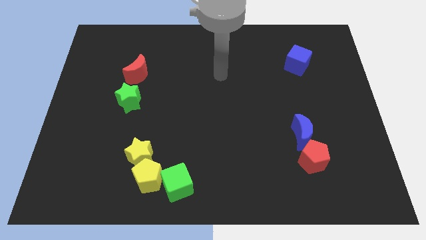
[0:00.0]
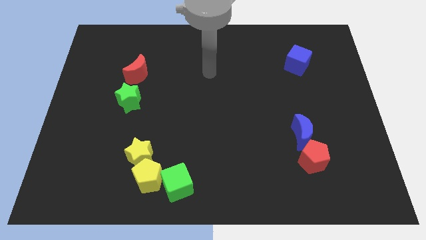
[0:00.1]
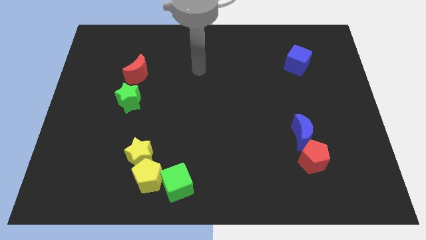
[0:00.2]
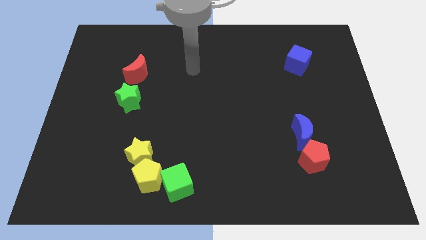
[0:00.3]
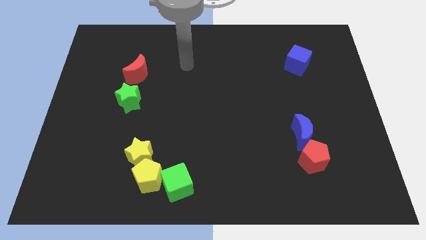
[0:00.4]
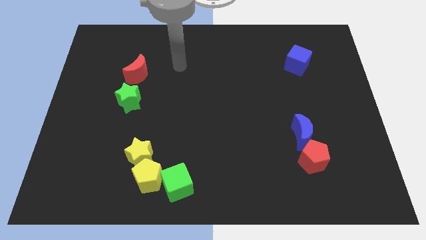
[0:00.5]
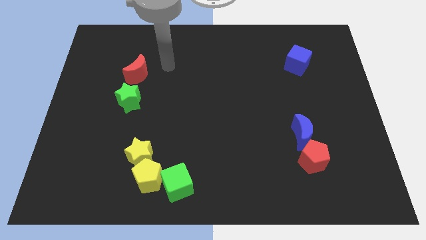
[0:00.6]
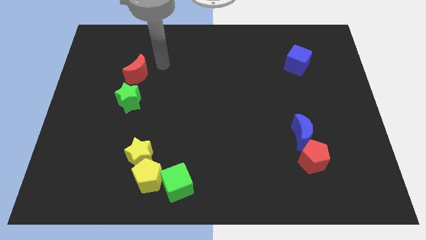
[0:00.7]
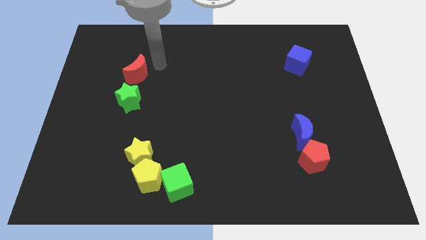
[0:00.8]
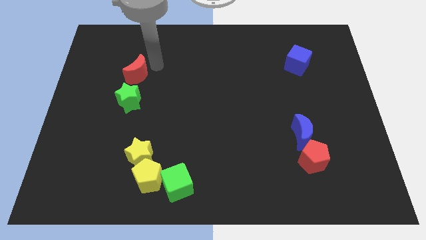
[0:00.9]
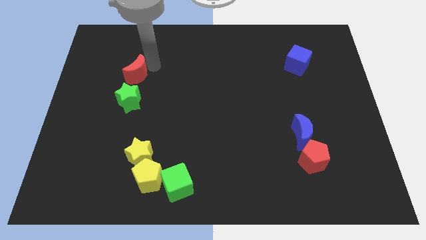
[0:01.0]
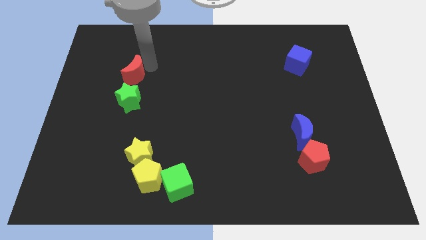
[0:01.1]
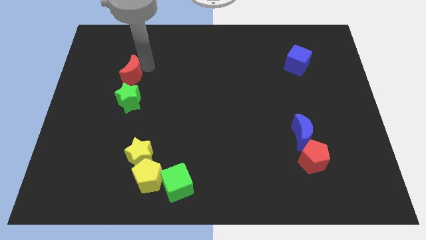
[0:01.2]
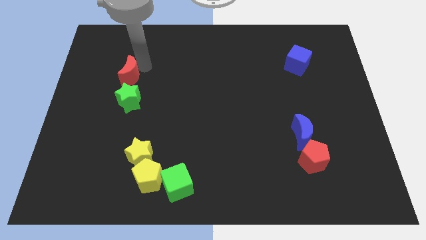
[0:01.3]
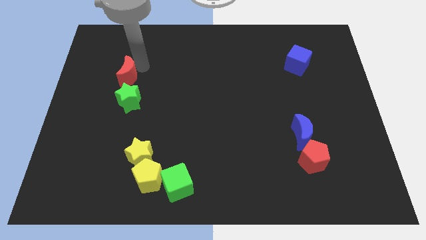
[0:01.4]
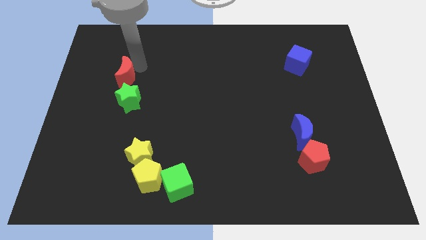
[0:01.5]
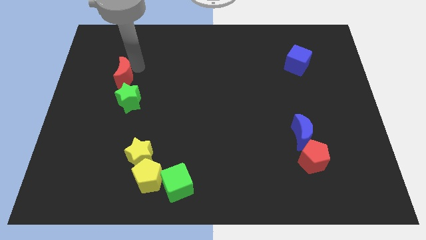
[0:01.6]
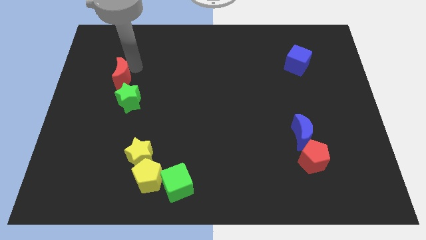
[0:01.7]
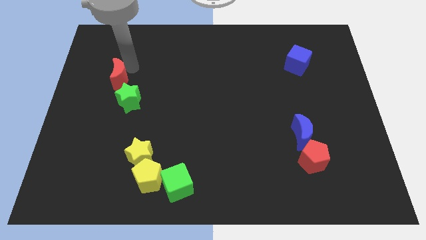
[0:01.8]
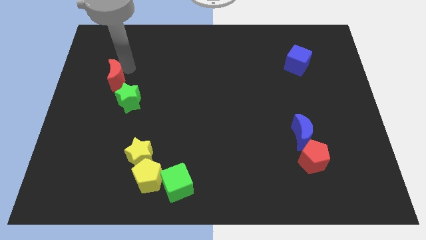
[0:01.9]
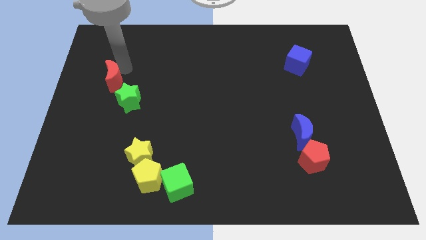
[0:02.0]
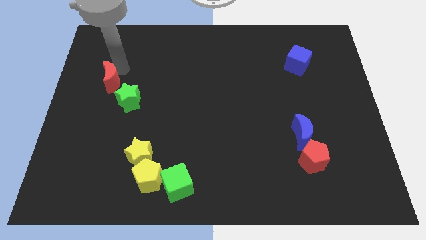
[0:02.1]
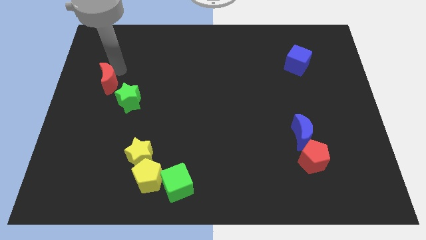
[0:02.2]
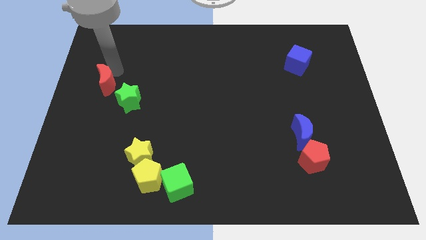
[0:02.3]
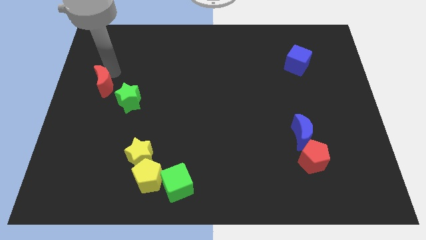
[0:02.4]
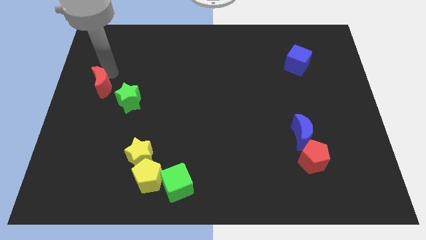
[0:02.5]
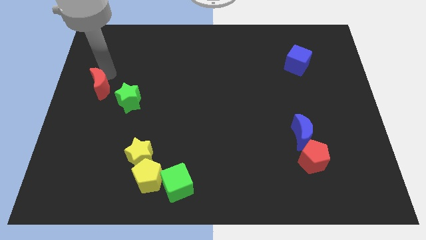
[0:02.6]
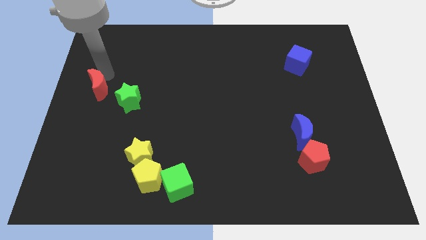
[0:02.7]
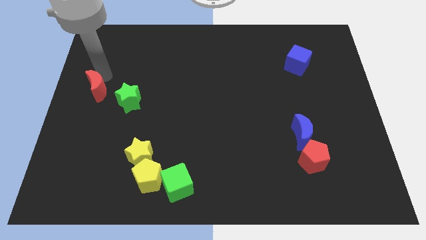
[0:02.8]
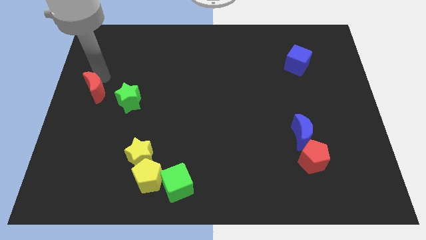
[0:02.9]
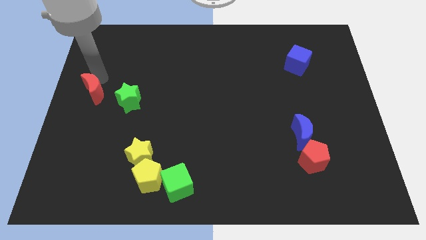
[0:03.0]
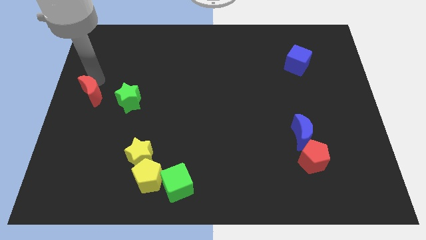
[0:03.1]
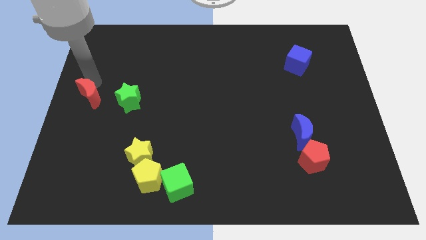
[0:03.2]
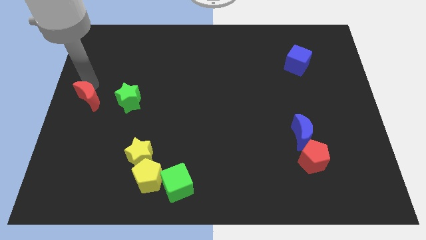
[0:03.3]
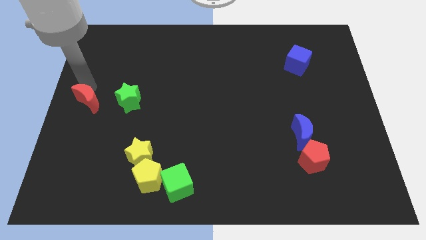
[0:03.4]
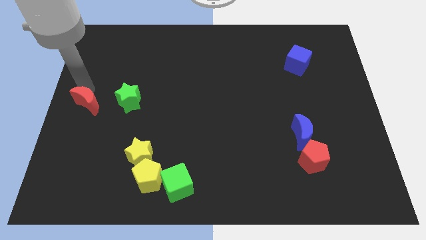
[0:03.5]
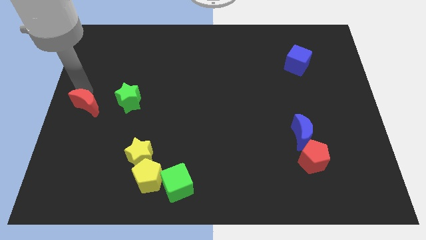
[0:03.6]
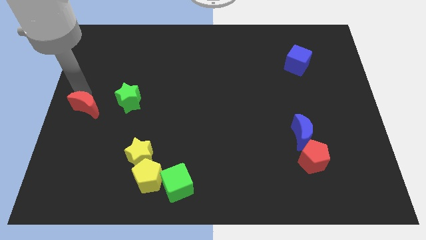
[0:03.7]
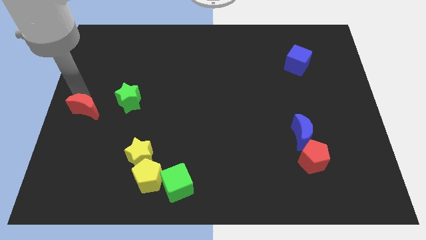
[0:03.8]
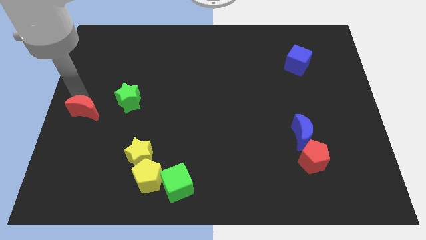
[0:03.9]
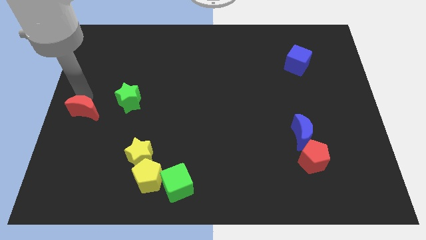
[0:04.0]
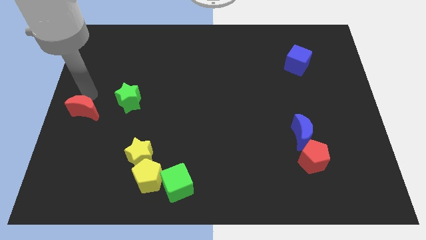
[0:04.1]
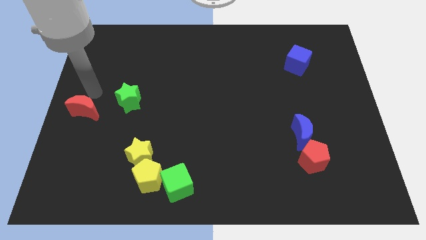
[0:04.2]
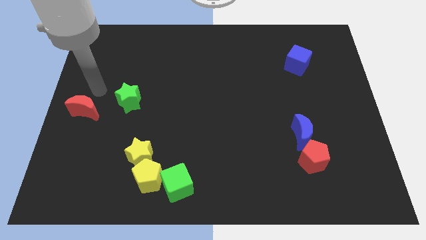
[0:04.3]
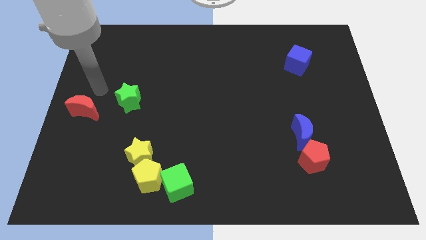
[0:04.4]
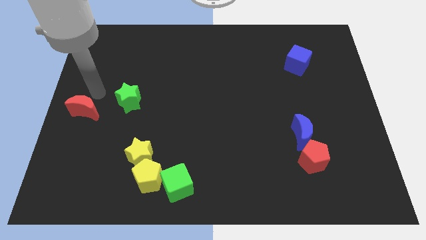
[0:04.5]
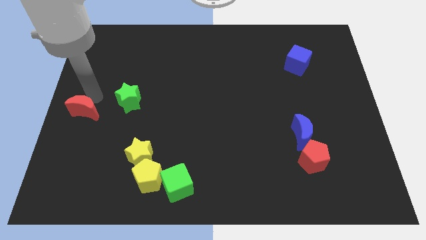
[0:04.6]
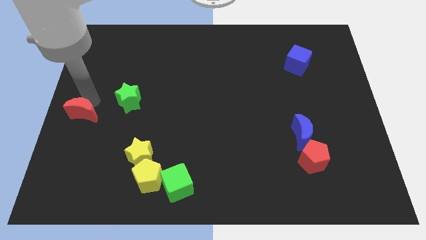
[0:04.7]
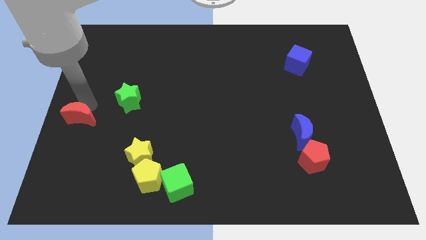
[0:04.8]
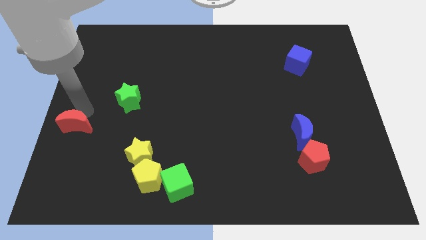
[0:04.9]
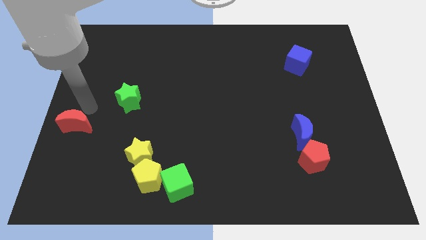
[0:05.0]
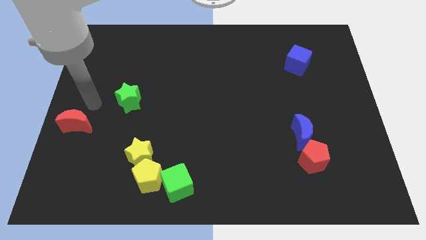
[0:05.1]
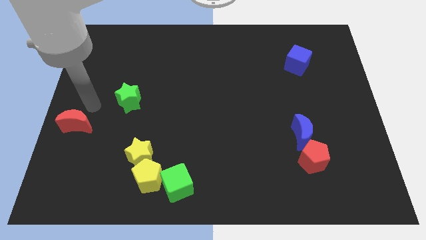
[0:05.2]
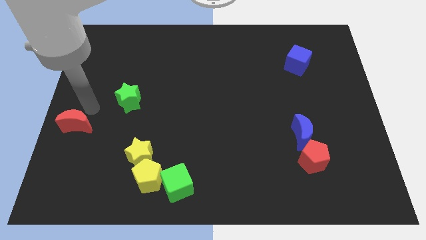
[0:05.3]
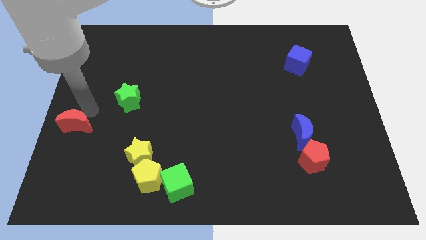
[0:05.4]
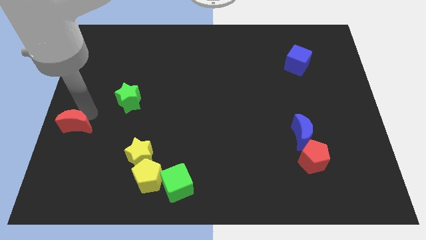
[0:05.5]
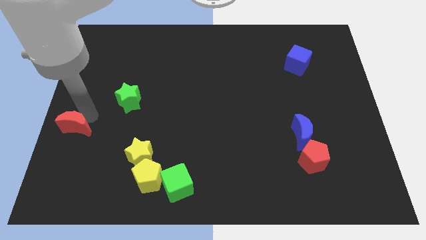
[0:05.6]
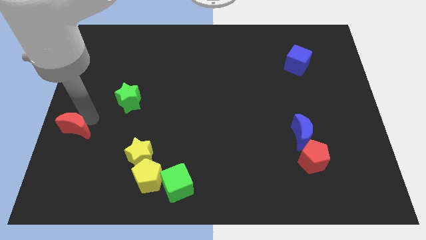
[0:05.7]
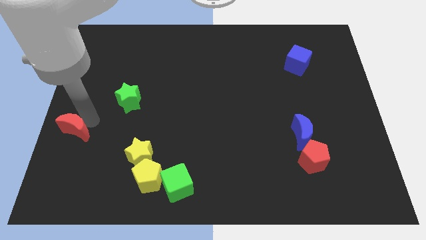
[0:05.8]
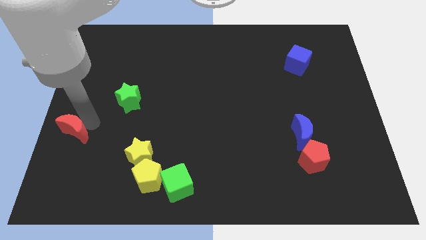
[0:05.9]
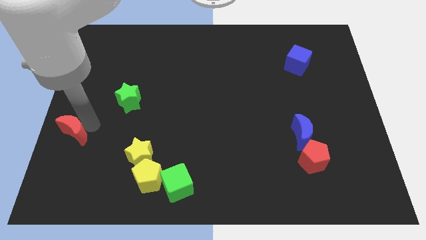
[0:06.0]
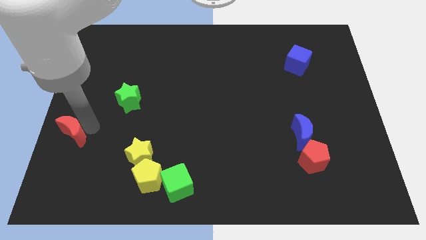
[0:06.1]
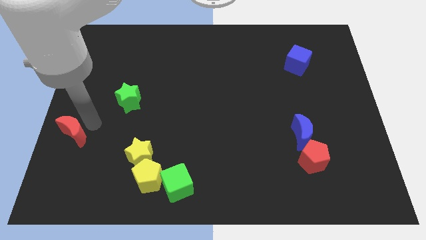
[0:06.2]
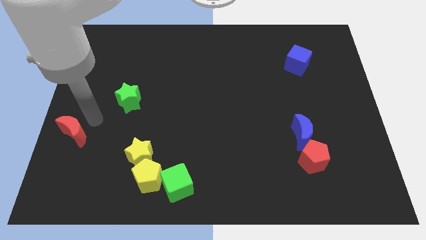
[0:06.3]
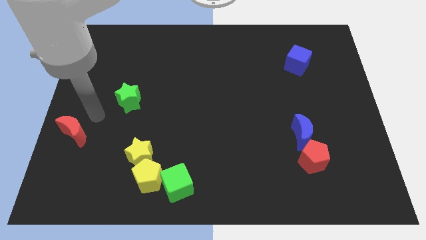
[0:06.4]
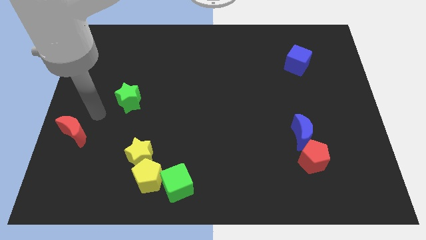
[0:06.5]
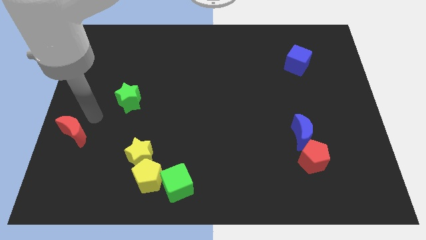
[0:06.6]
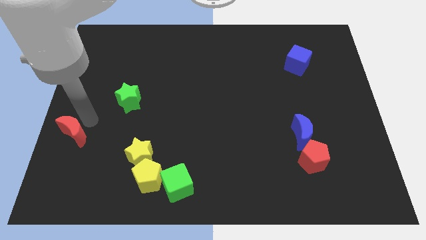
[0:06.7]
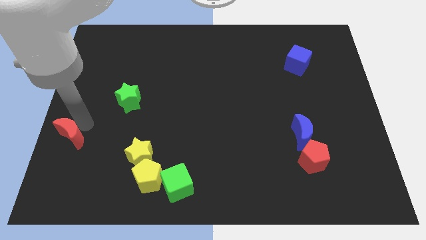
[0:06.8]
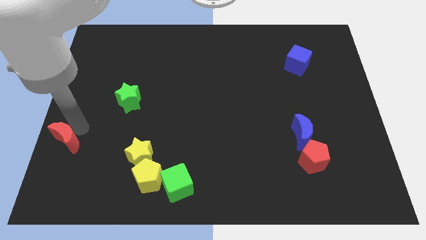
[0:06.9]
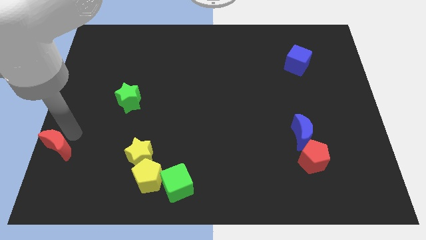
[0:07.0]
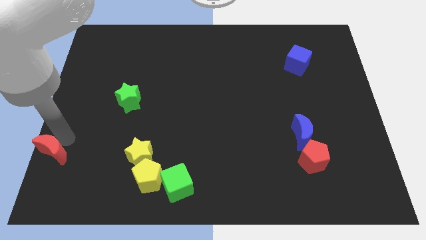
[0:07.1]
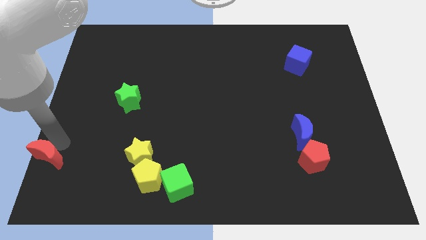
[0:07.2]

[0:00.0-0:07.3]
put the red moon to the bottom left corner
